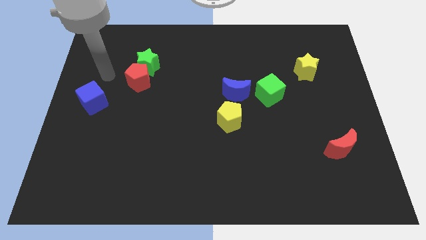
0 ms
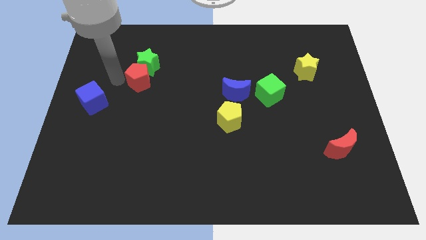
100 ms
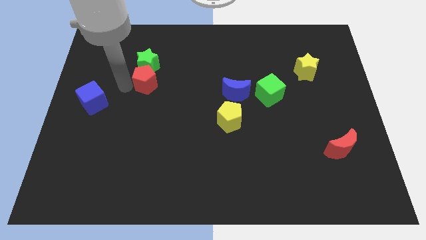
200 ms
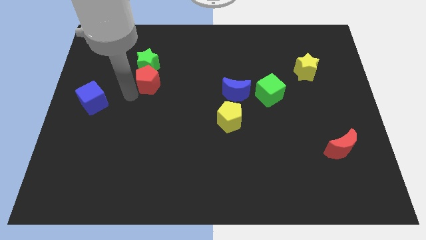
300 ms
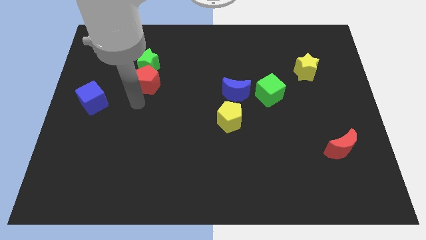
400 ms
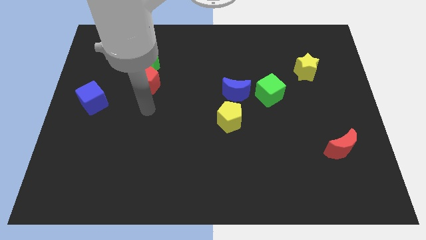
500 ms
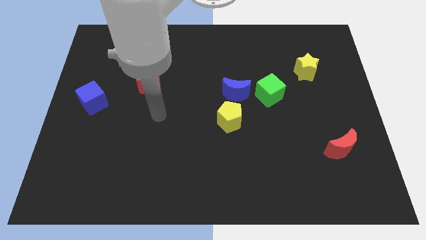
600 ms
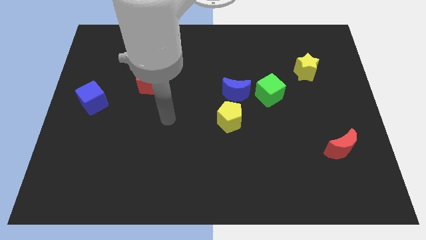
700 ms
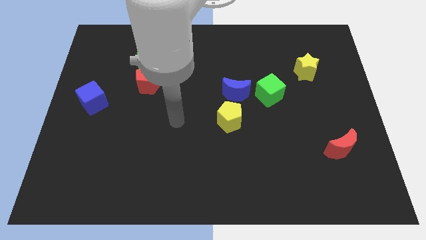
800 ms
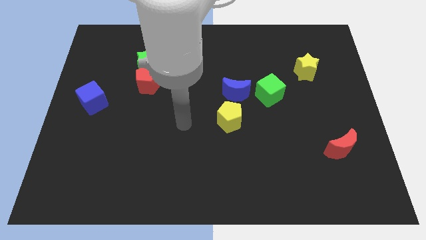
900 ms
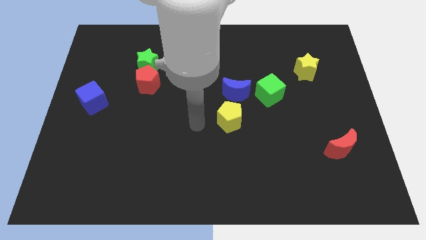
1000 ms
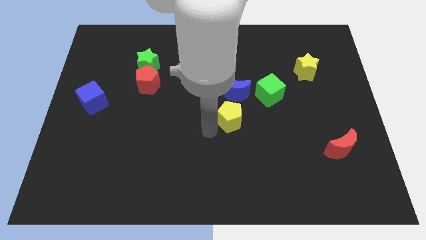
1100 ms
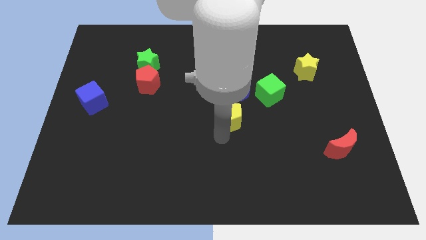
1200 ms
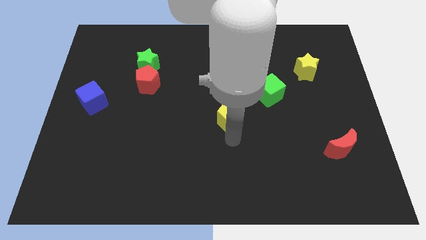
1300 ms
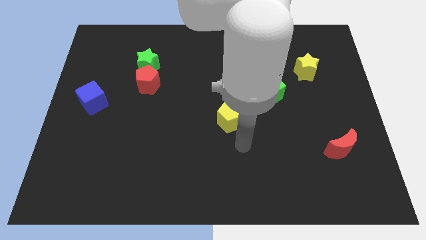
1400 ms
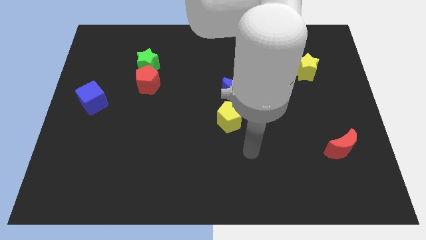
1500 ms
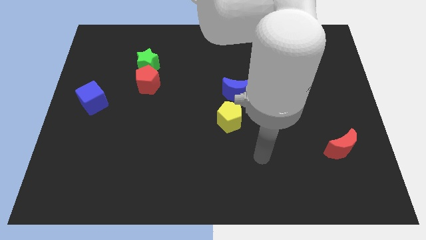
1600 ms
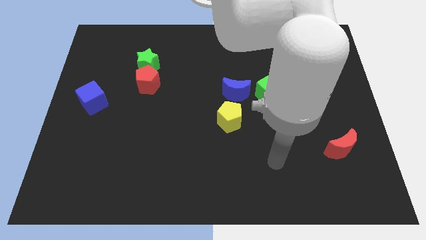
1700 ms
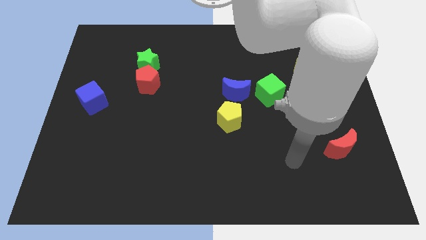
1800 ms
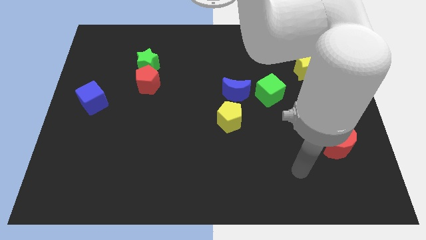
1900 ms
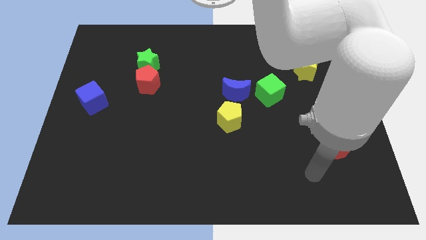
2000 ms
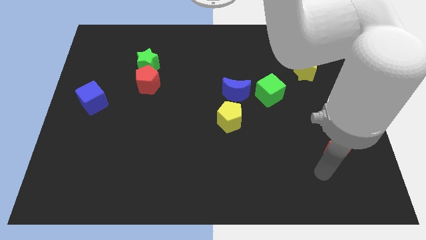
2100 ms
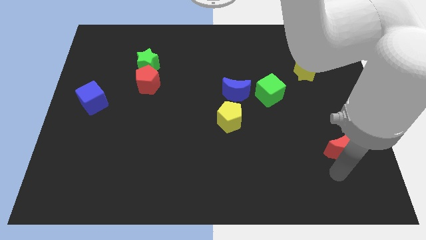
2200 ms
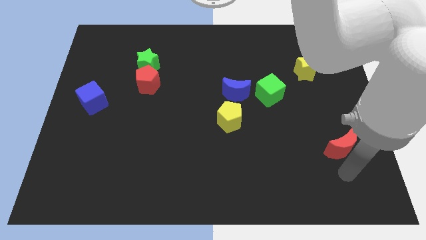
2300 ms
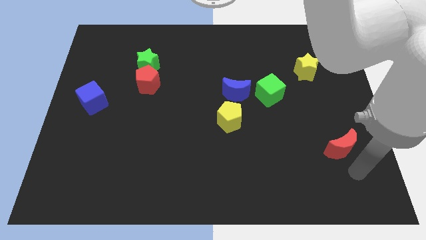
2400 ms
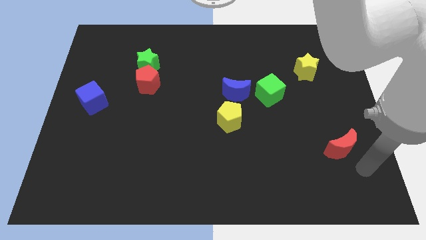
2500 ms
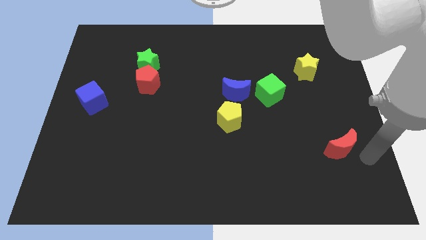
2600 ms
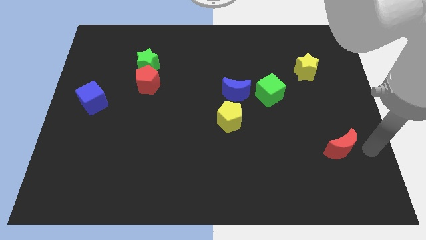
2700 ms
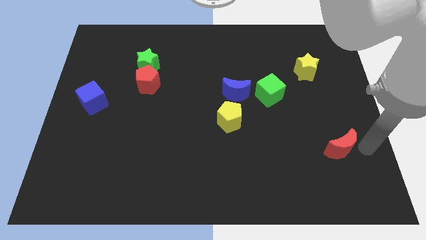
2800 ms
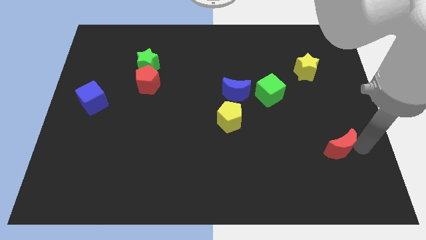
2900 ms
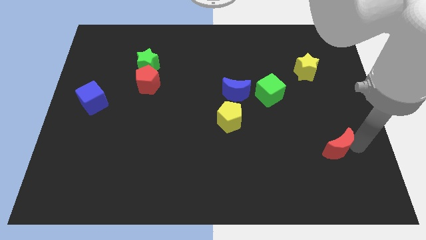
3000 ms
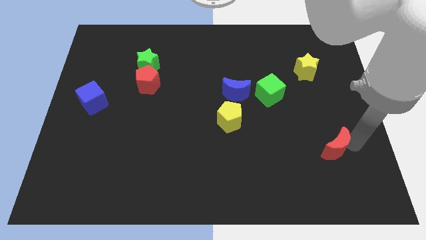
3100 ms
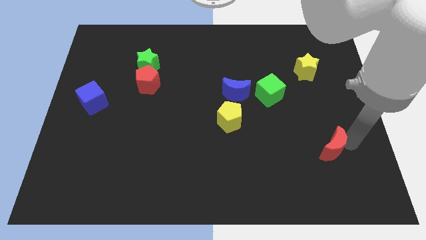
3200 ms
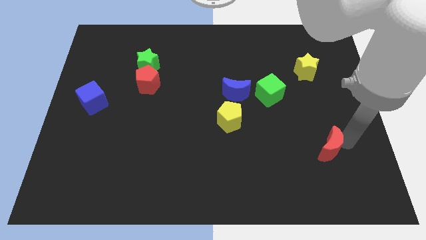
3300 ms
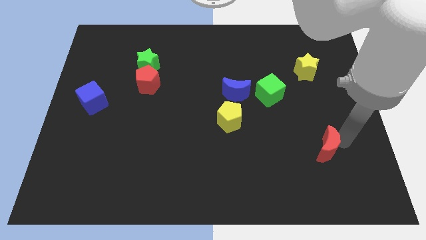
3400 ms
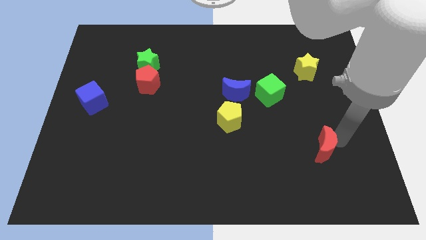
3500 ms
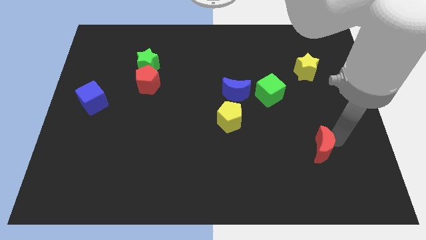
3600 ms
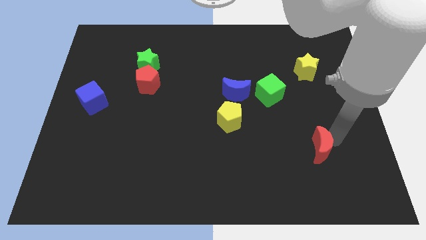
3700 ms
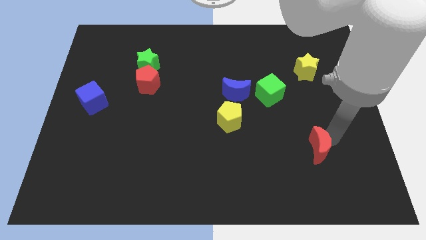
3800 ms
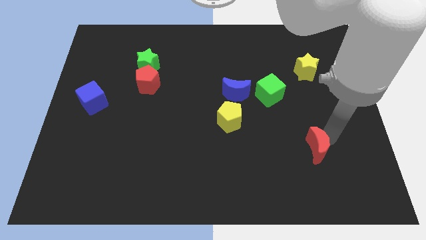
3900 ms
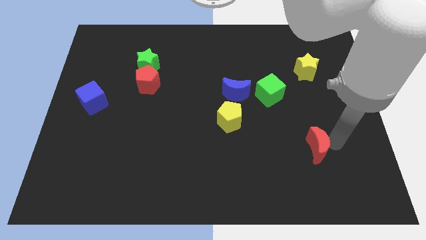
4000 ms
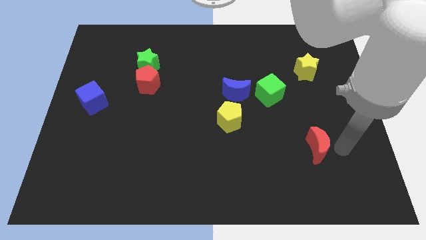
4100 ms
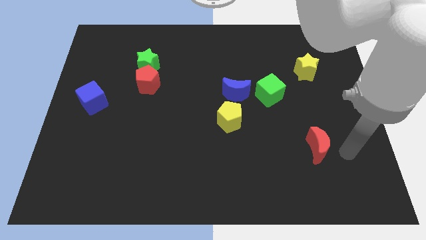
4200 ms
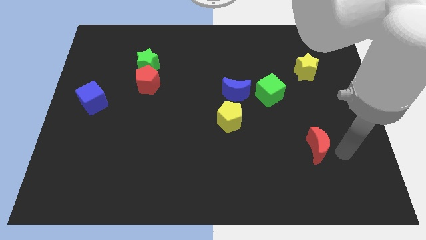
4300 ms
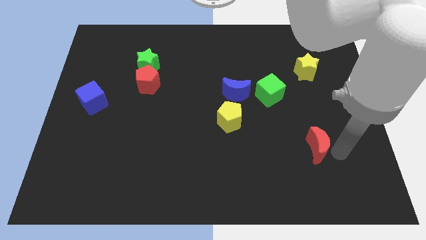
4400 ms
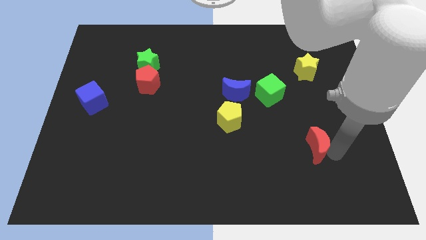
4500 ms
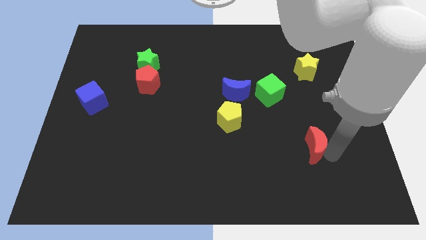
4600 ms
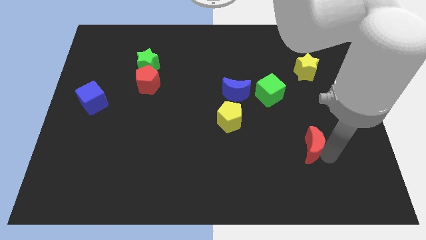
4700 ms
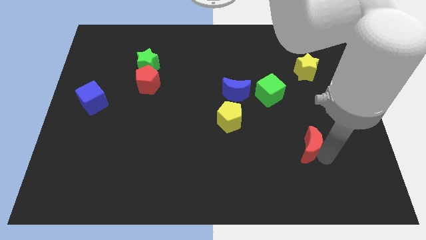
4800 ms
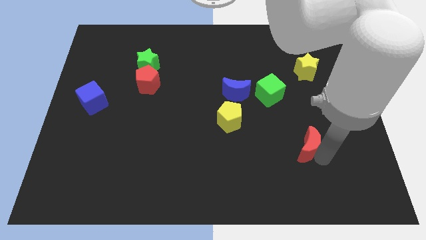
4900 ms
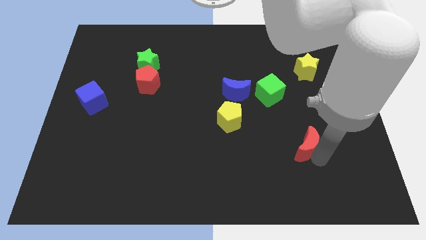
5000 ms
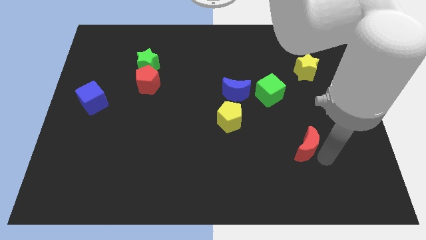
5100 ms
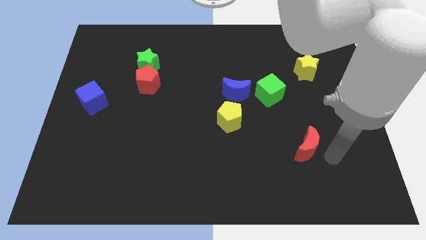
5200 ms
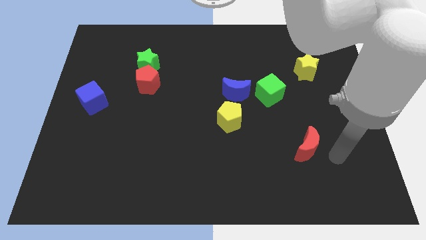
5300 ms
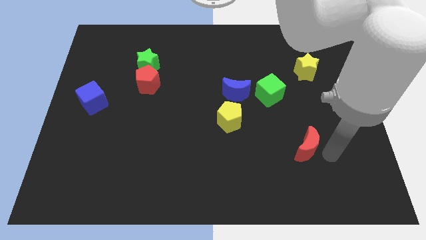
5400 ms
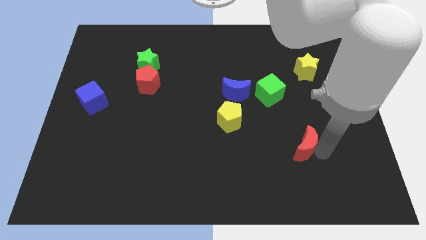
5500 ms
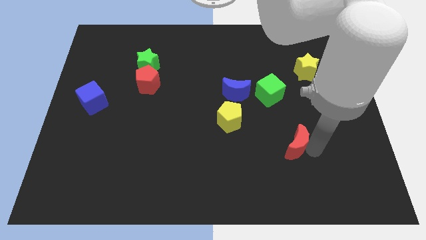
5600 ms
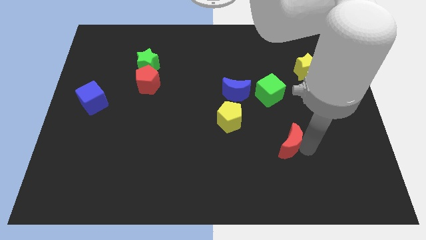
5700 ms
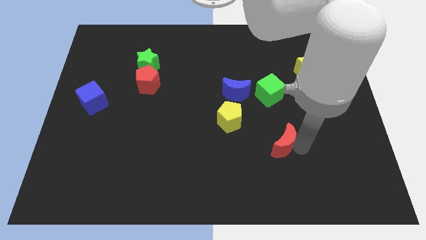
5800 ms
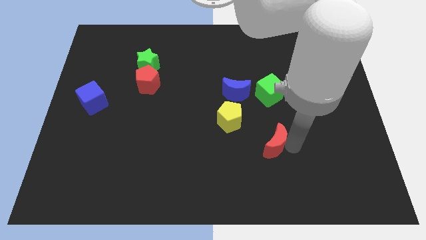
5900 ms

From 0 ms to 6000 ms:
slide the red moon to the bottom right side of the yellow pentagon

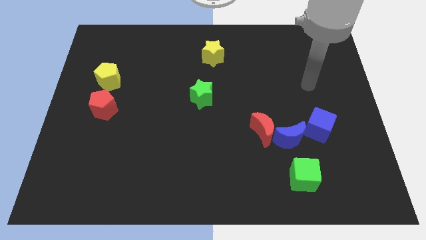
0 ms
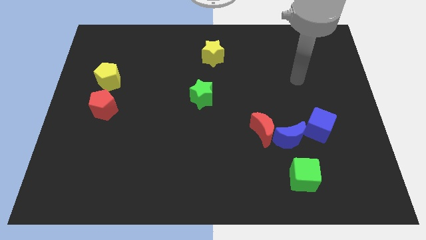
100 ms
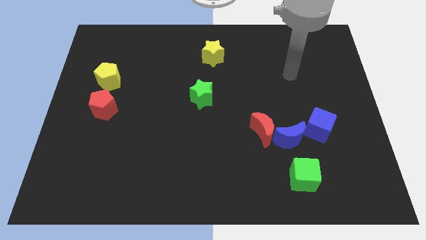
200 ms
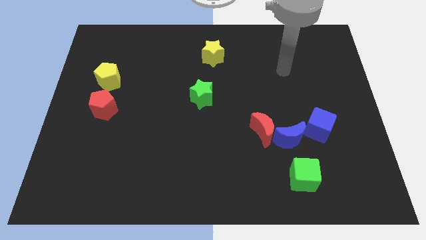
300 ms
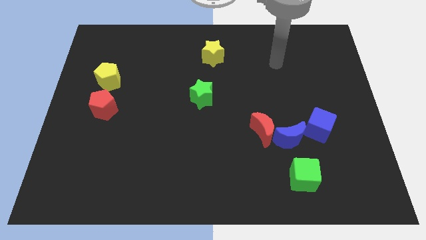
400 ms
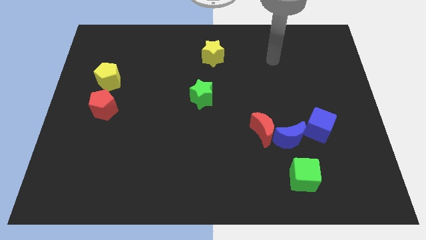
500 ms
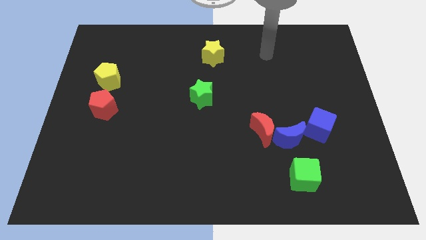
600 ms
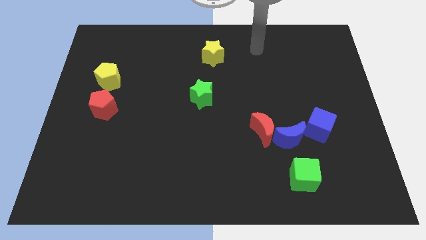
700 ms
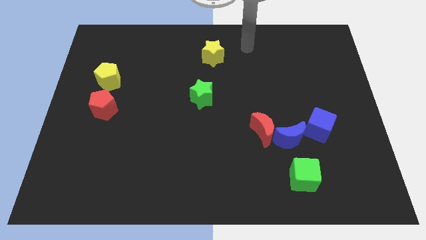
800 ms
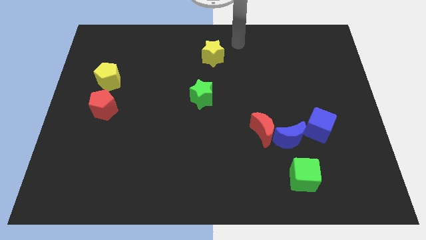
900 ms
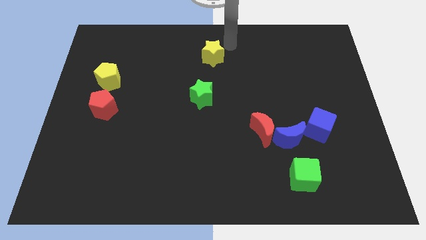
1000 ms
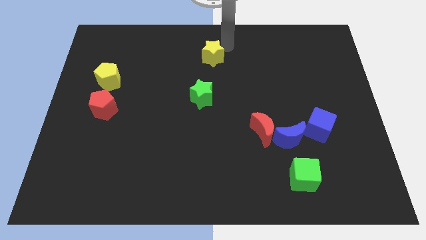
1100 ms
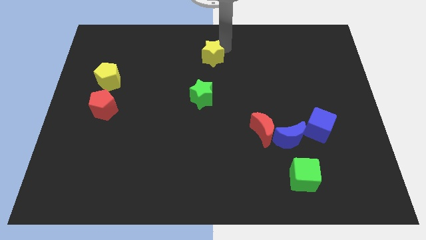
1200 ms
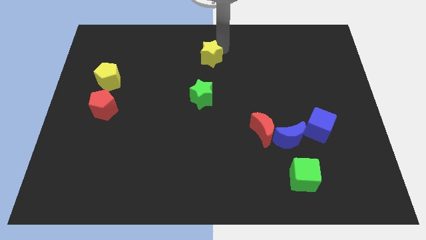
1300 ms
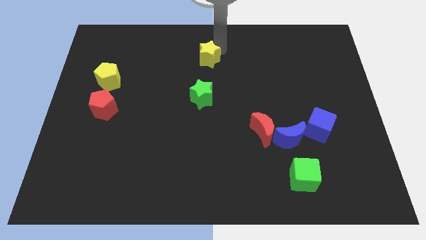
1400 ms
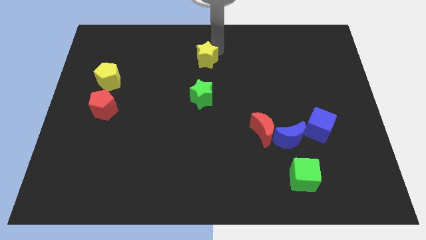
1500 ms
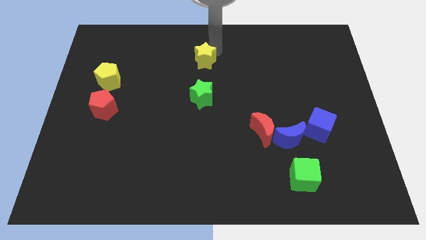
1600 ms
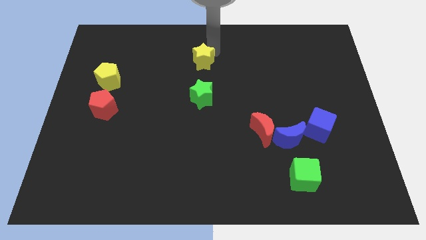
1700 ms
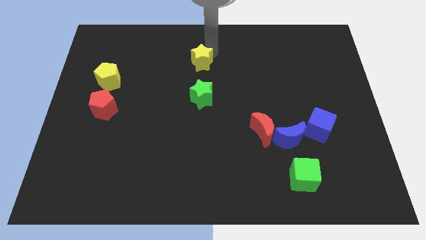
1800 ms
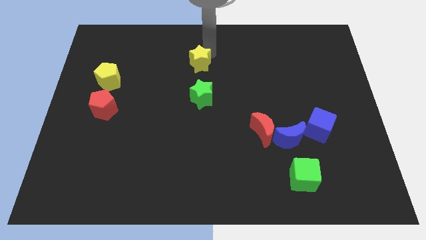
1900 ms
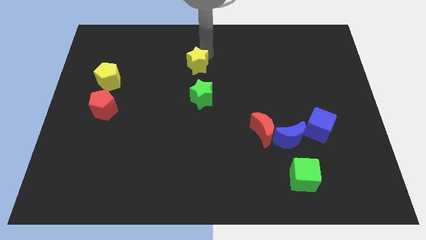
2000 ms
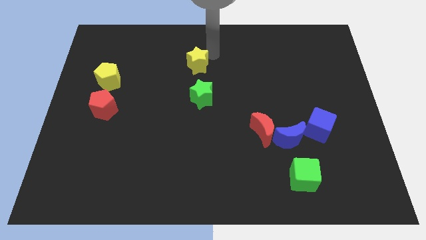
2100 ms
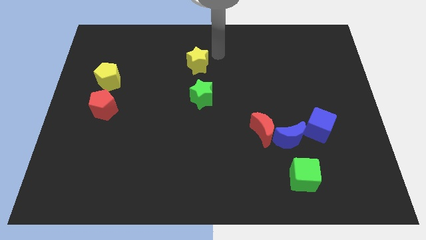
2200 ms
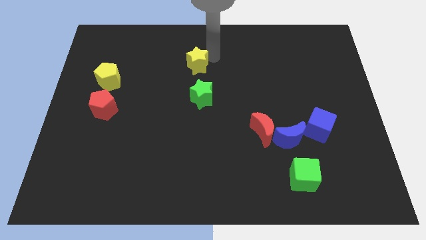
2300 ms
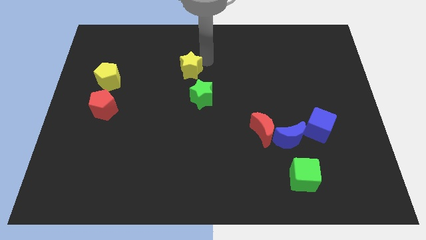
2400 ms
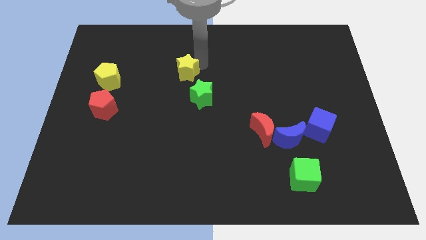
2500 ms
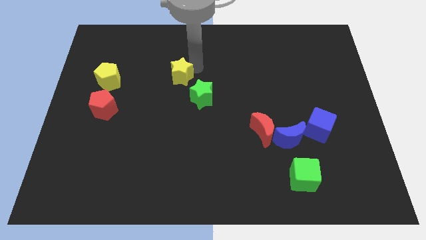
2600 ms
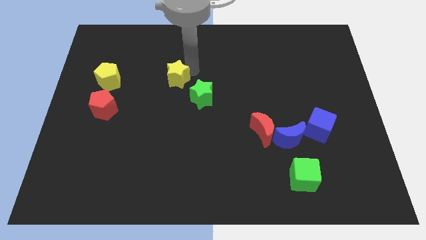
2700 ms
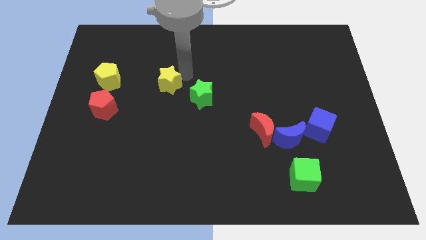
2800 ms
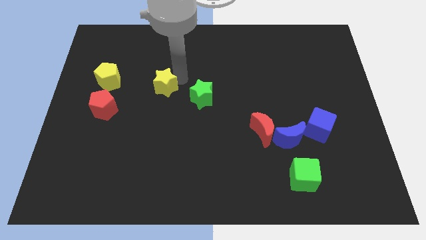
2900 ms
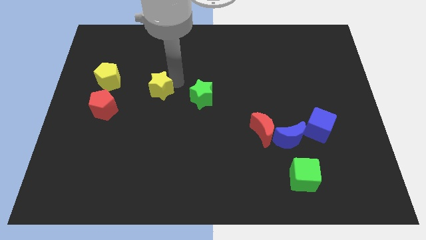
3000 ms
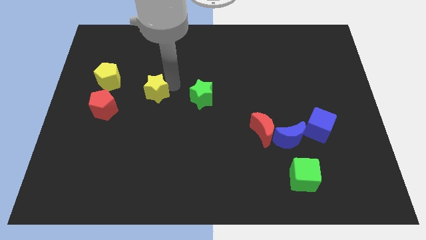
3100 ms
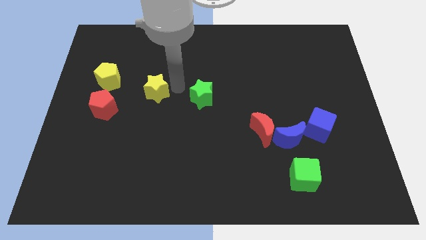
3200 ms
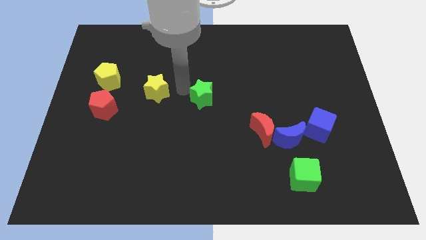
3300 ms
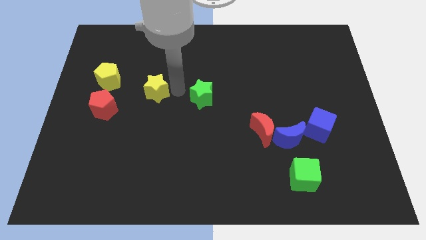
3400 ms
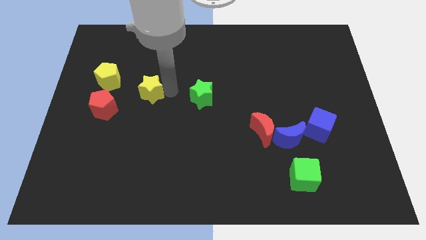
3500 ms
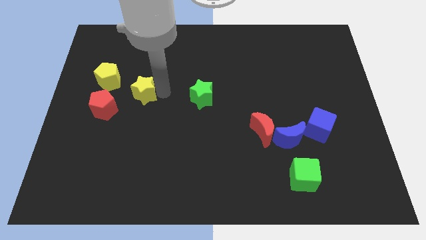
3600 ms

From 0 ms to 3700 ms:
slide the yellow star to the bottom right side of the yellow pentagon
